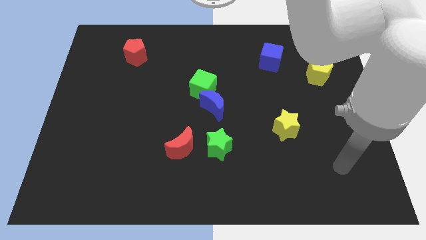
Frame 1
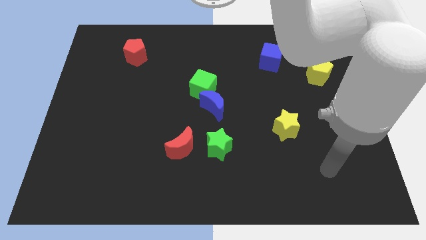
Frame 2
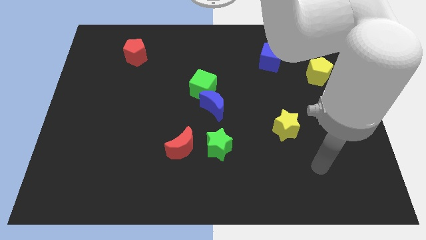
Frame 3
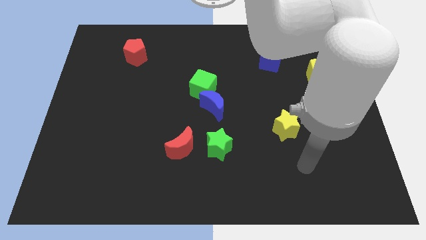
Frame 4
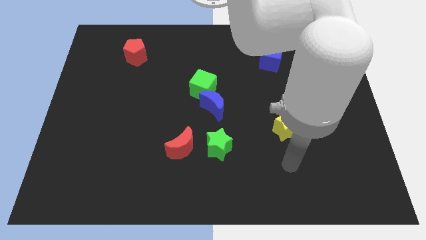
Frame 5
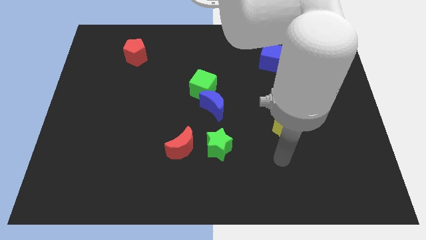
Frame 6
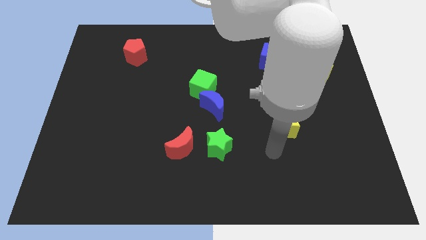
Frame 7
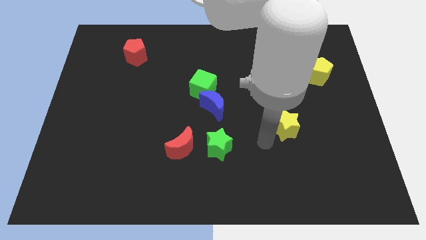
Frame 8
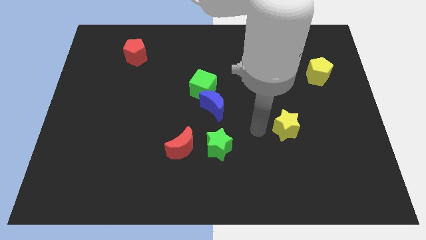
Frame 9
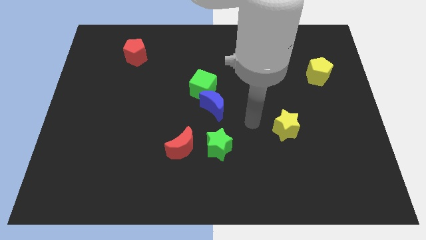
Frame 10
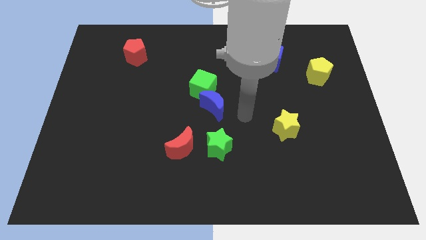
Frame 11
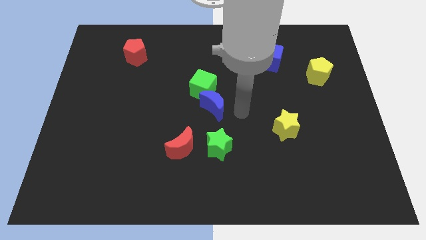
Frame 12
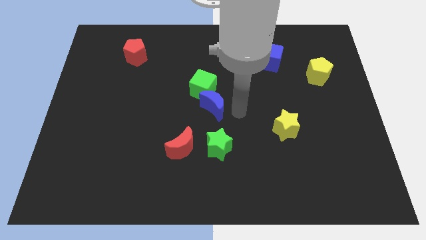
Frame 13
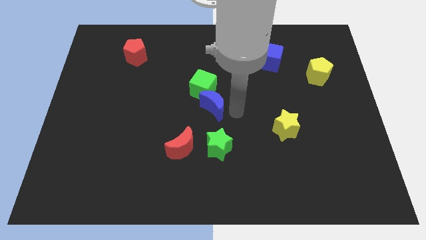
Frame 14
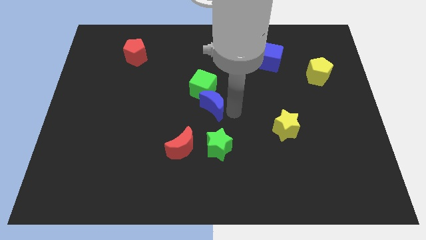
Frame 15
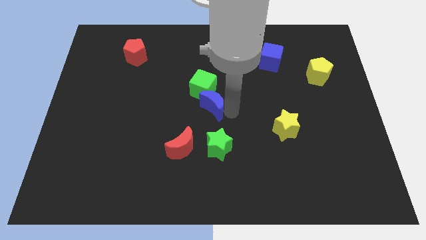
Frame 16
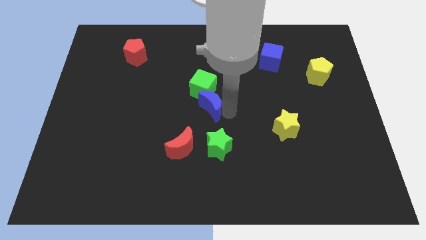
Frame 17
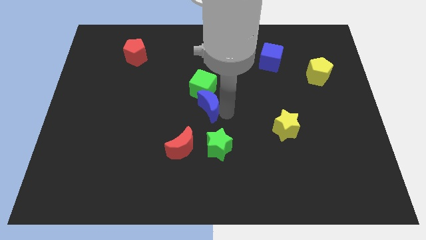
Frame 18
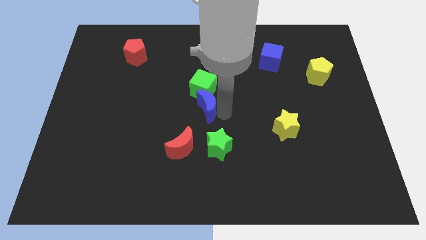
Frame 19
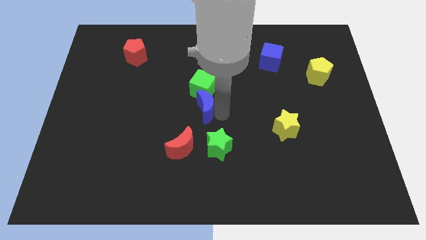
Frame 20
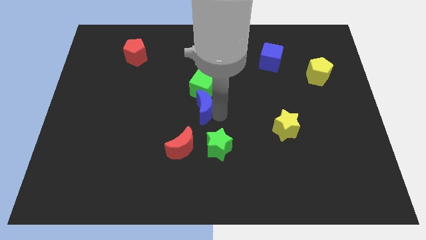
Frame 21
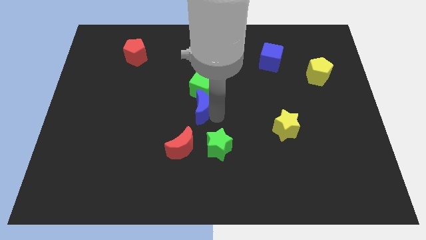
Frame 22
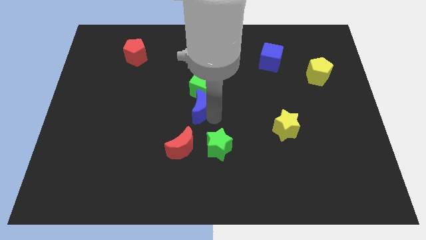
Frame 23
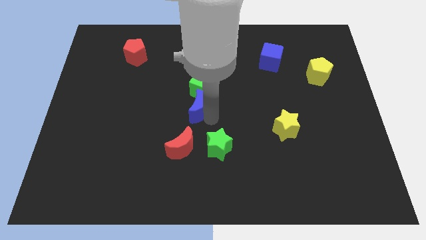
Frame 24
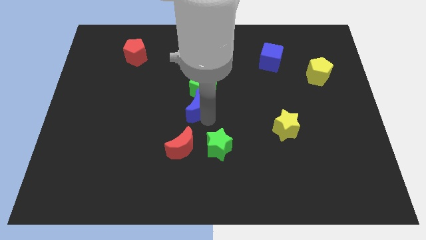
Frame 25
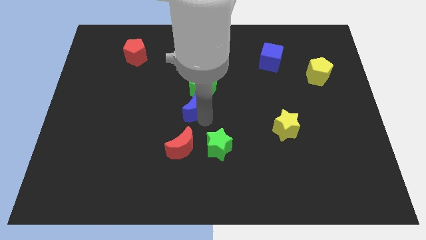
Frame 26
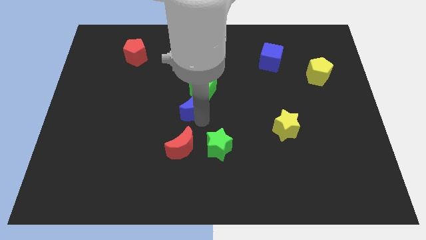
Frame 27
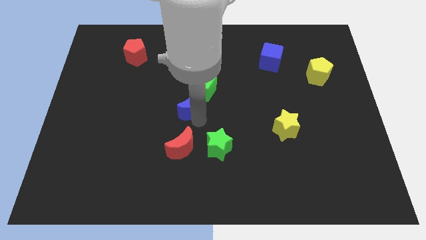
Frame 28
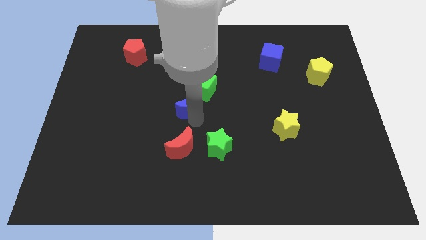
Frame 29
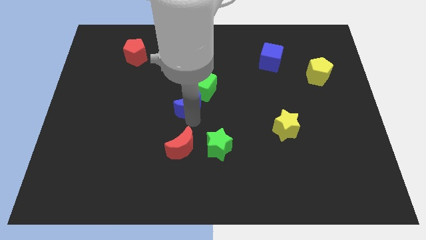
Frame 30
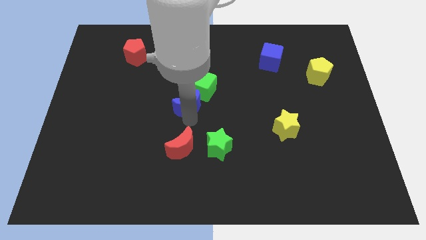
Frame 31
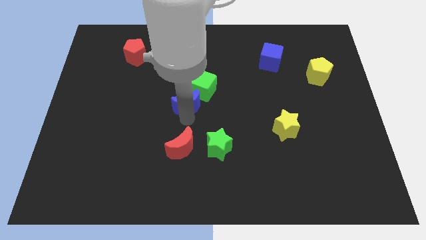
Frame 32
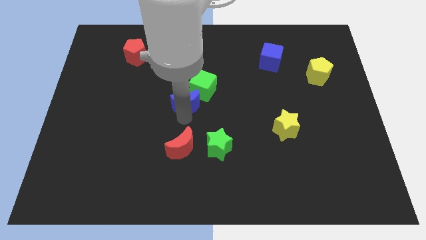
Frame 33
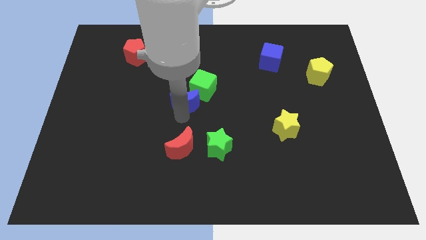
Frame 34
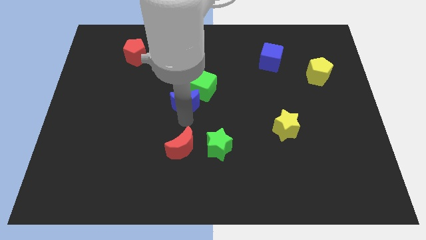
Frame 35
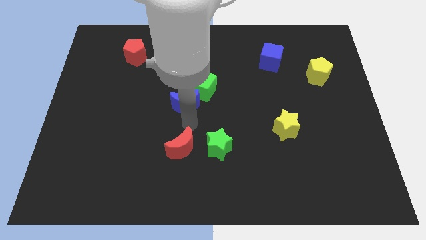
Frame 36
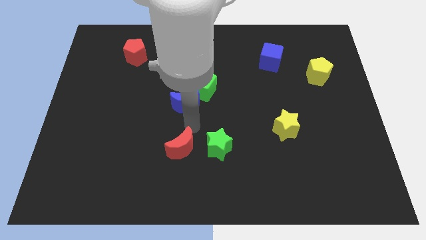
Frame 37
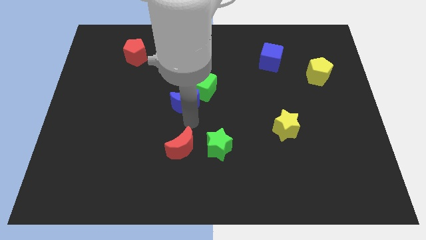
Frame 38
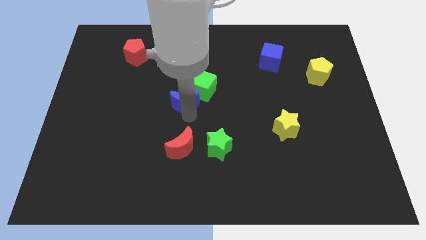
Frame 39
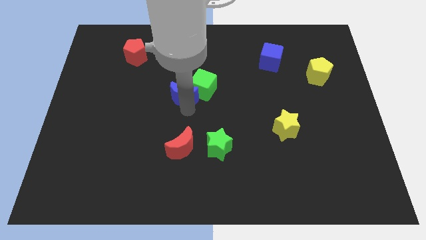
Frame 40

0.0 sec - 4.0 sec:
move the blue moon a little diagonally upwards and to the left

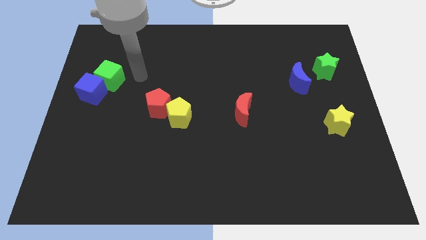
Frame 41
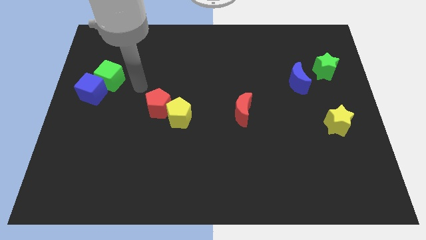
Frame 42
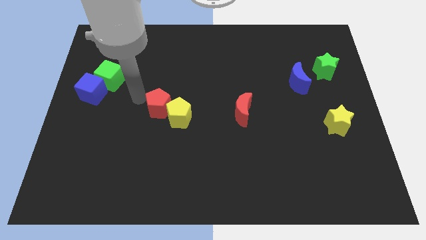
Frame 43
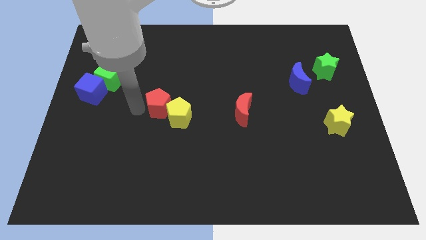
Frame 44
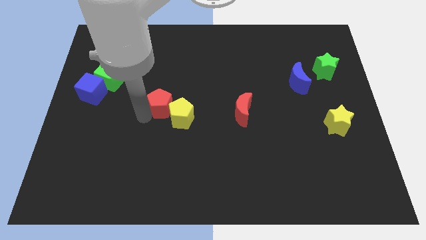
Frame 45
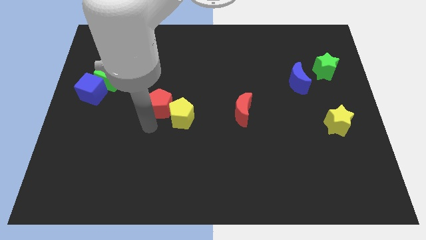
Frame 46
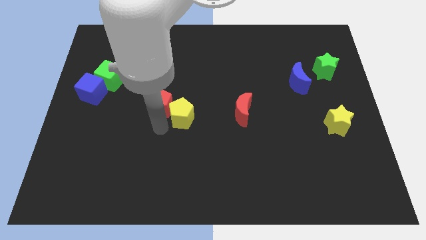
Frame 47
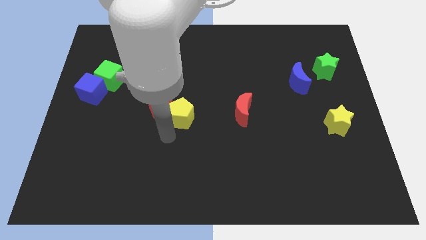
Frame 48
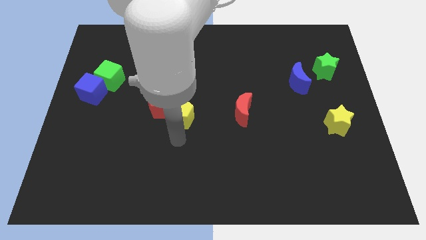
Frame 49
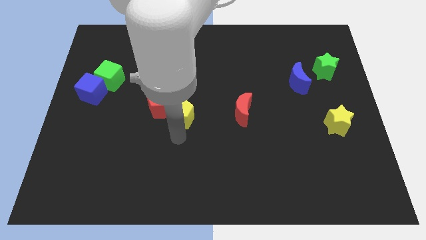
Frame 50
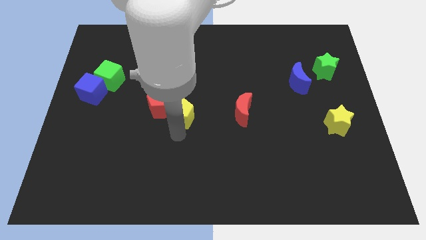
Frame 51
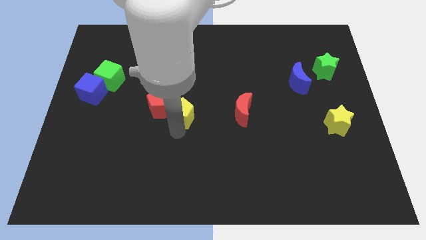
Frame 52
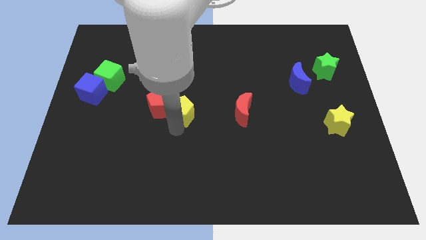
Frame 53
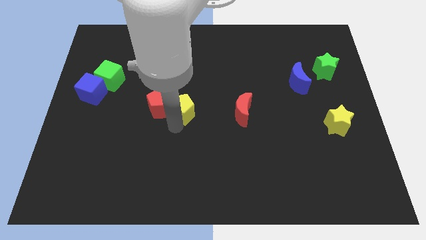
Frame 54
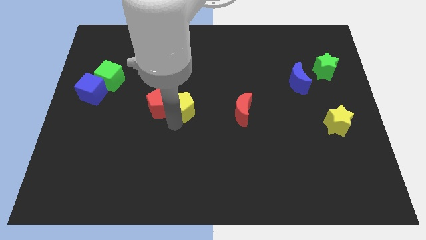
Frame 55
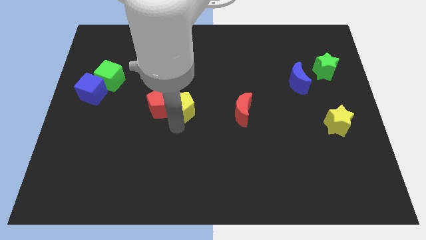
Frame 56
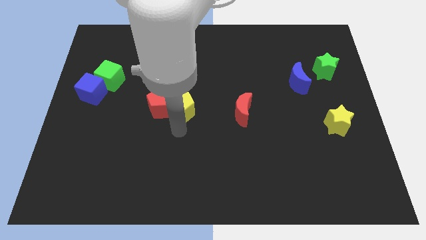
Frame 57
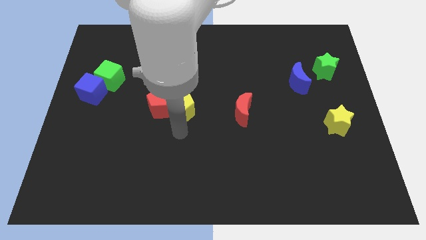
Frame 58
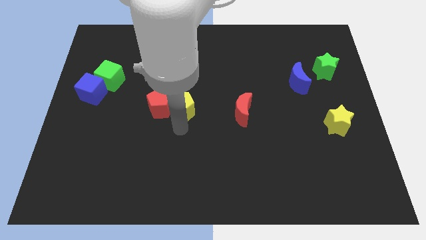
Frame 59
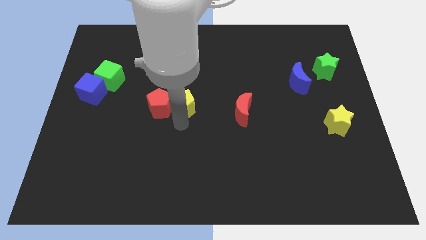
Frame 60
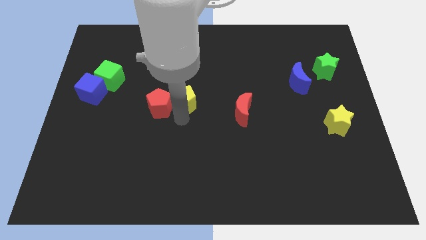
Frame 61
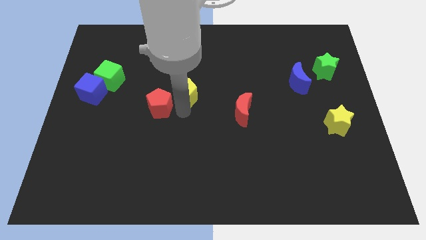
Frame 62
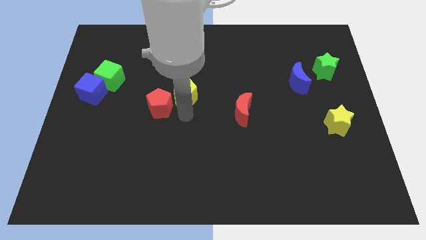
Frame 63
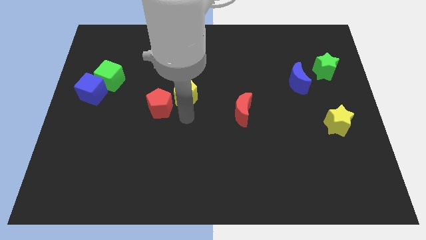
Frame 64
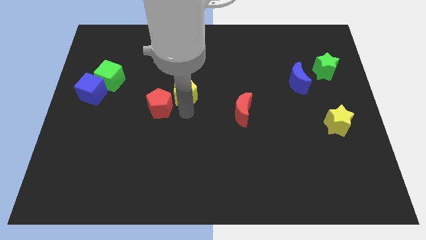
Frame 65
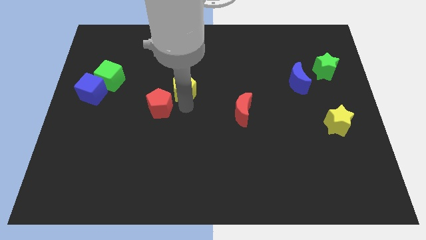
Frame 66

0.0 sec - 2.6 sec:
push the yellow pentagon slightly up

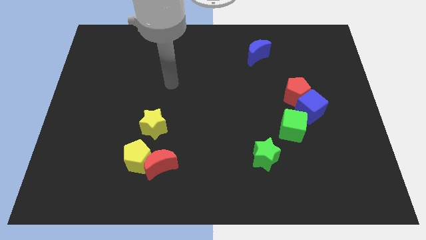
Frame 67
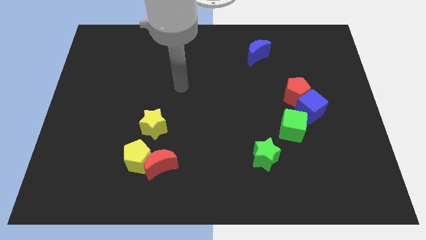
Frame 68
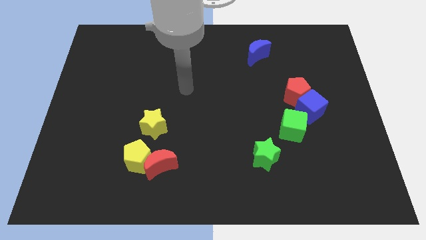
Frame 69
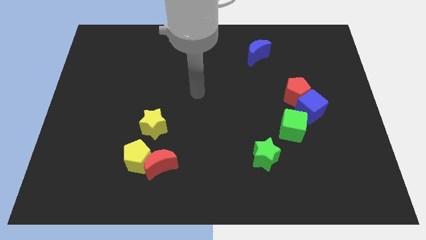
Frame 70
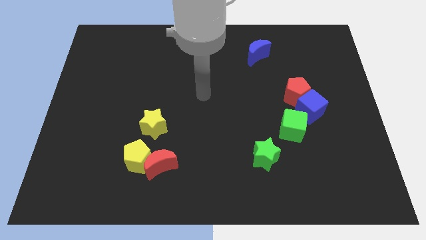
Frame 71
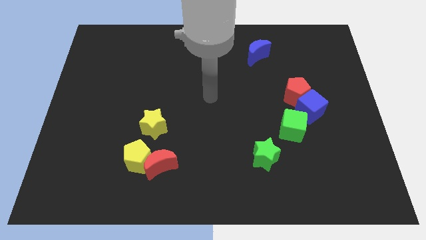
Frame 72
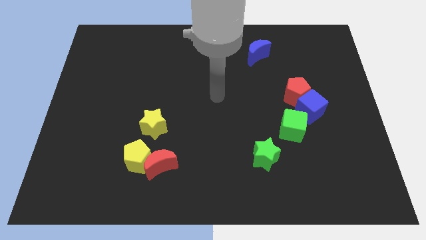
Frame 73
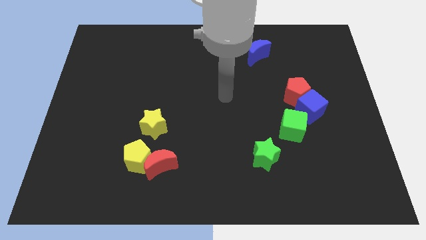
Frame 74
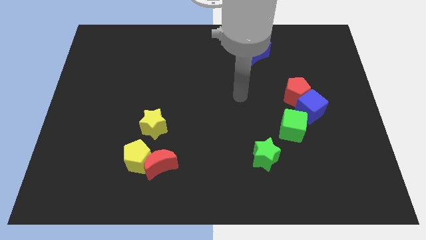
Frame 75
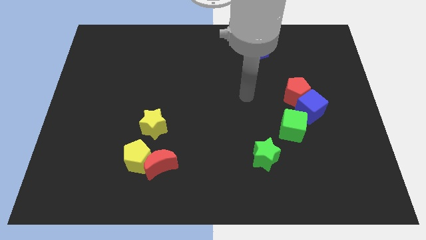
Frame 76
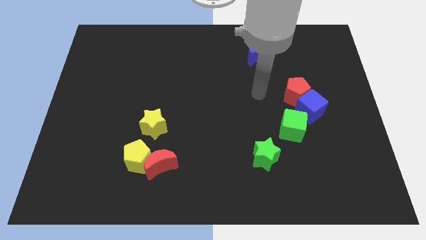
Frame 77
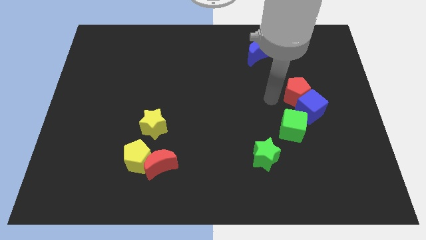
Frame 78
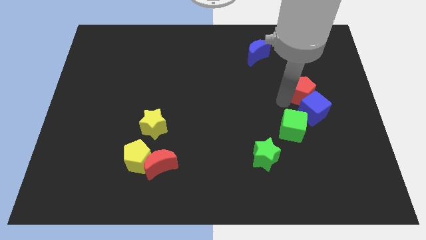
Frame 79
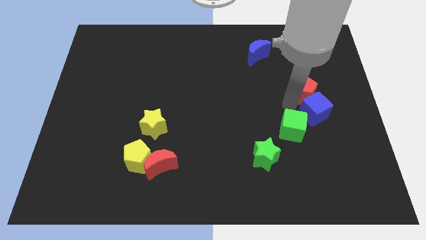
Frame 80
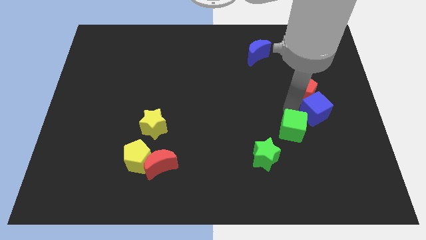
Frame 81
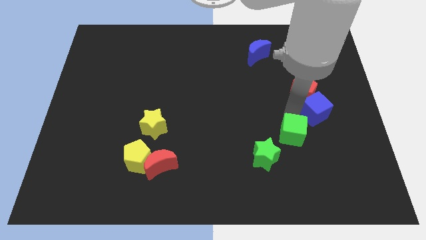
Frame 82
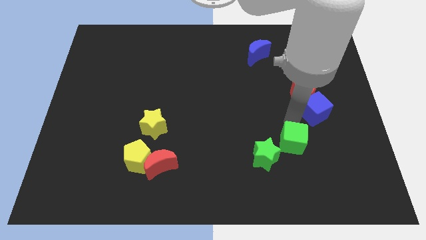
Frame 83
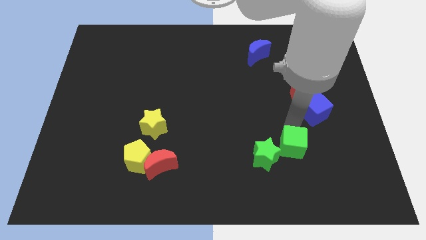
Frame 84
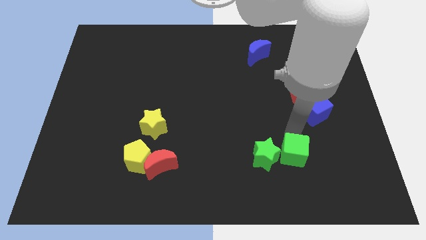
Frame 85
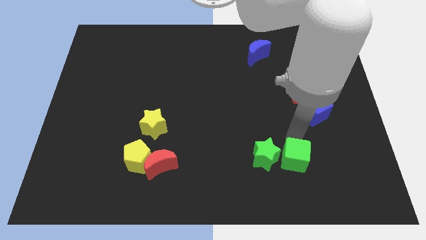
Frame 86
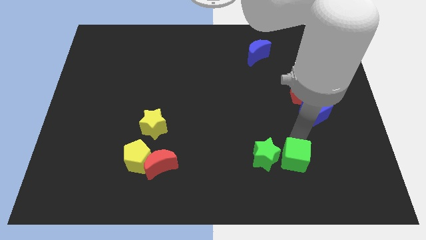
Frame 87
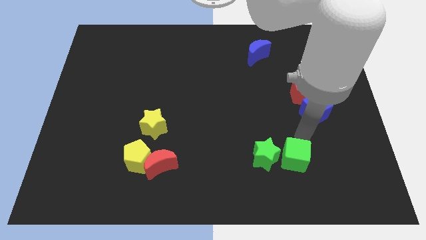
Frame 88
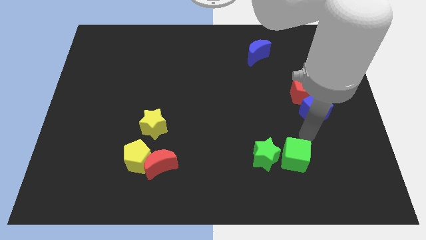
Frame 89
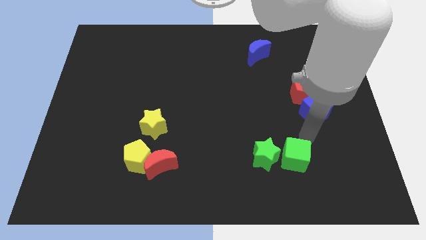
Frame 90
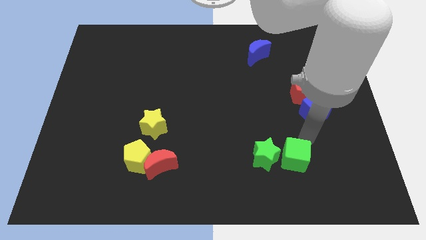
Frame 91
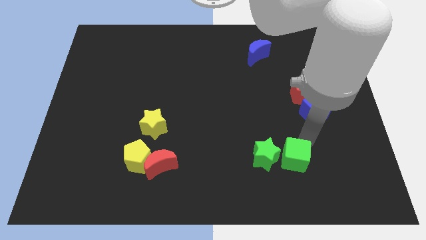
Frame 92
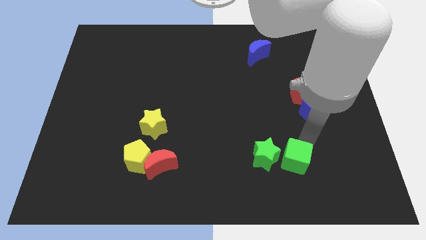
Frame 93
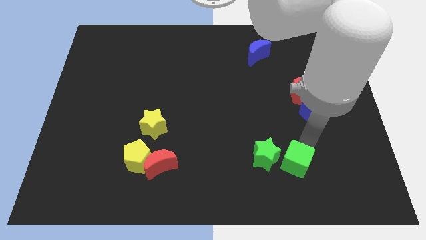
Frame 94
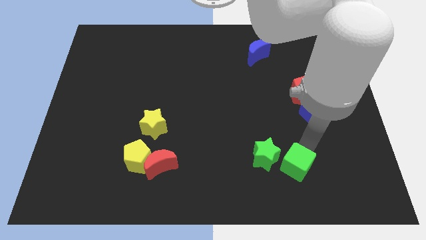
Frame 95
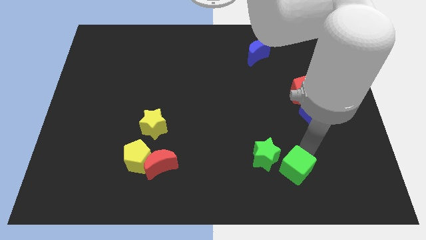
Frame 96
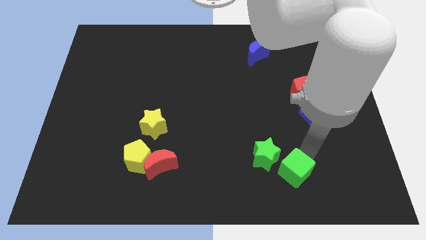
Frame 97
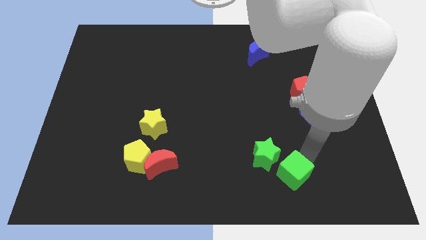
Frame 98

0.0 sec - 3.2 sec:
slightly slide the green cube downwards and to the left
